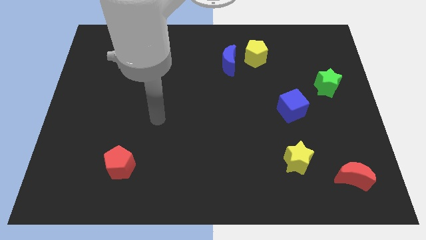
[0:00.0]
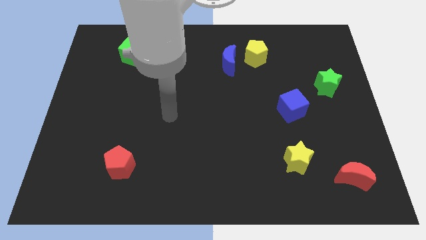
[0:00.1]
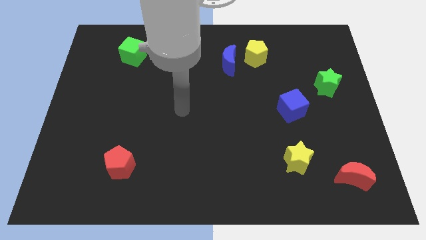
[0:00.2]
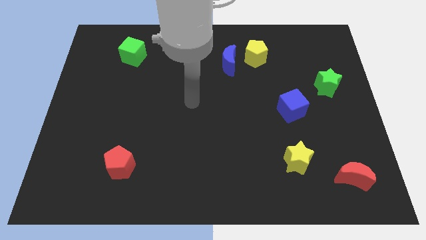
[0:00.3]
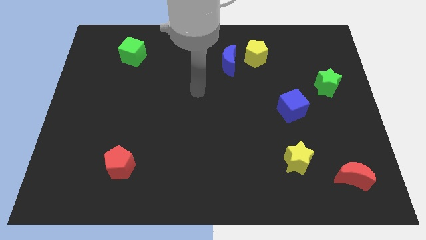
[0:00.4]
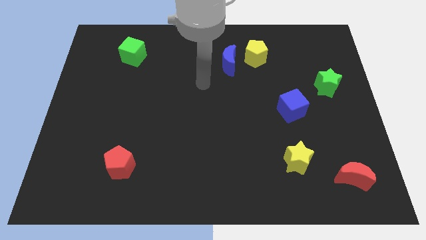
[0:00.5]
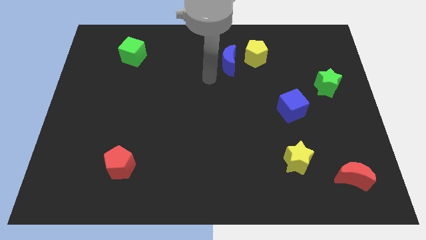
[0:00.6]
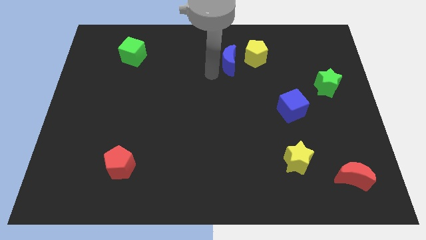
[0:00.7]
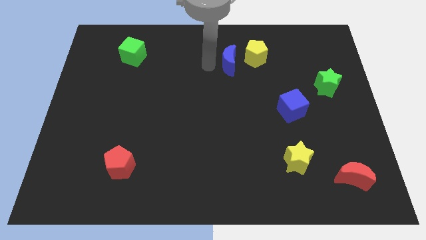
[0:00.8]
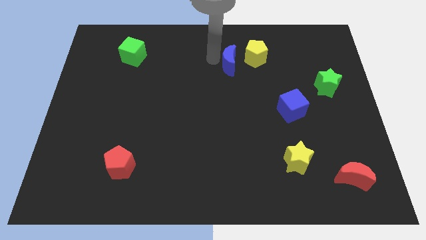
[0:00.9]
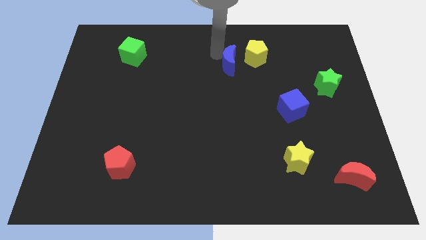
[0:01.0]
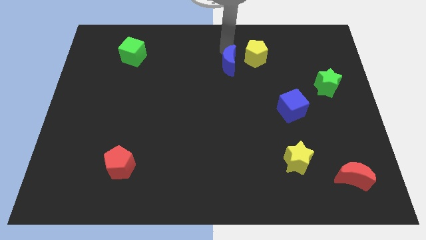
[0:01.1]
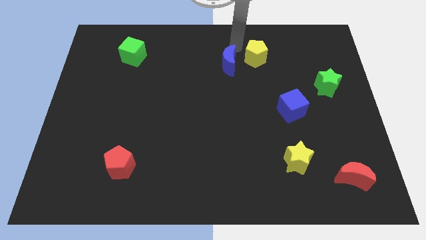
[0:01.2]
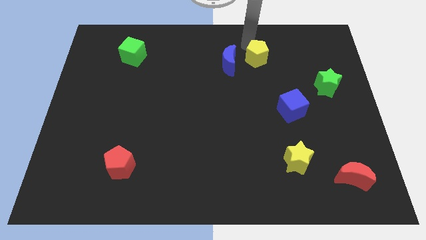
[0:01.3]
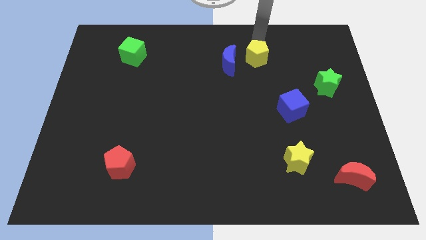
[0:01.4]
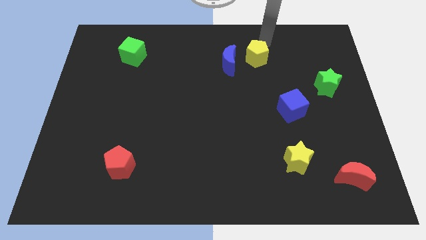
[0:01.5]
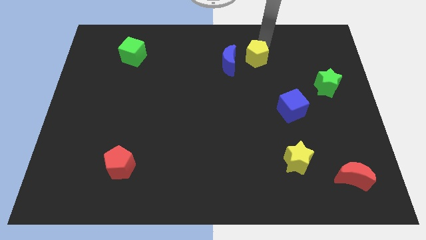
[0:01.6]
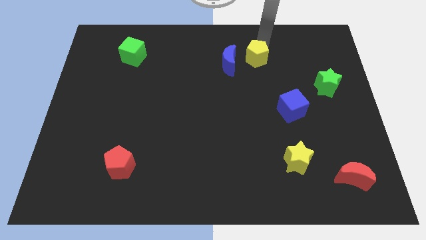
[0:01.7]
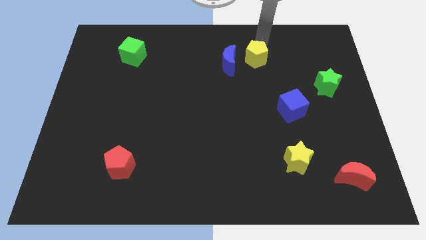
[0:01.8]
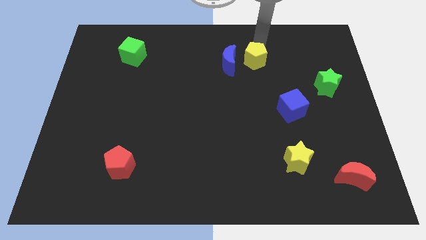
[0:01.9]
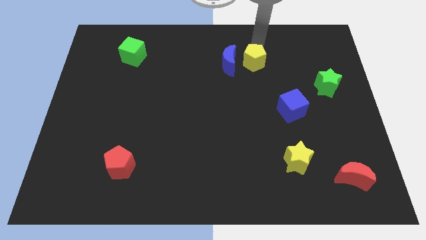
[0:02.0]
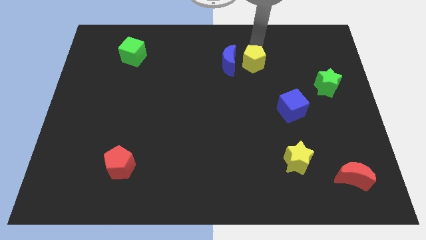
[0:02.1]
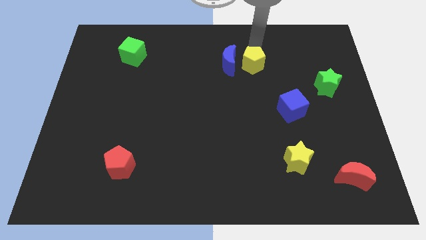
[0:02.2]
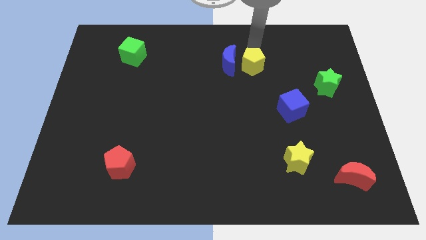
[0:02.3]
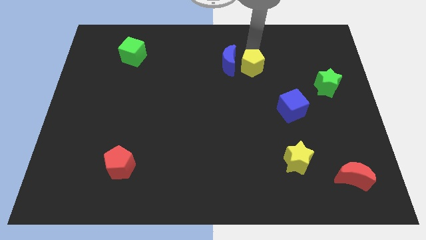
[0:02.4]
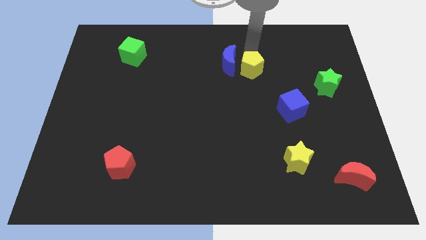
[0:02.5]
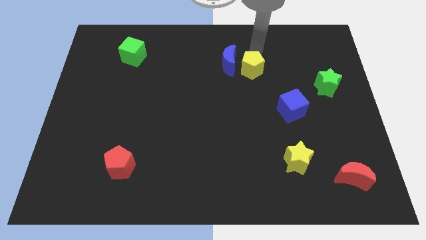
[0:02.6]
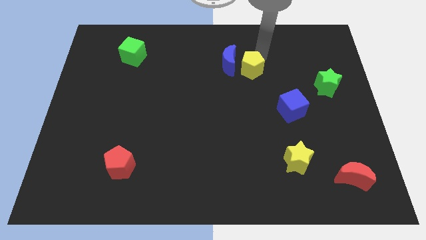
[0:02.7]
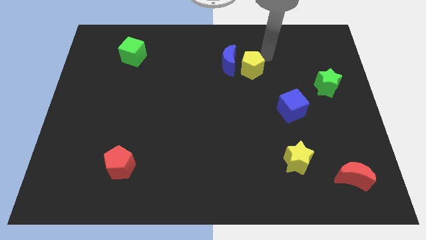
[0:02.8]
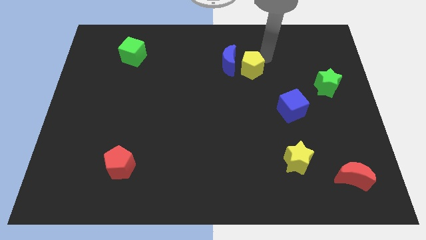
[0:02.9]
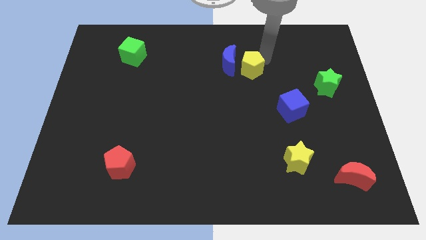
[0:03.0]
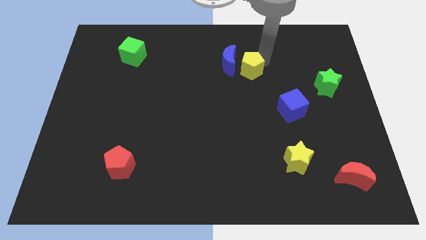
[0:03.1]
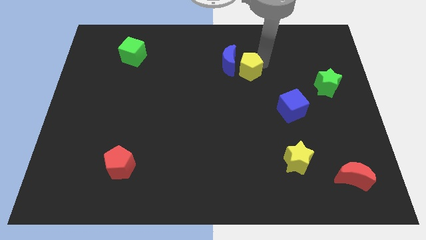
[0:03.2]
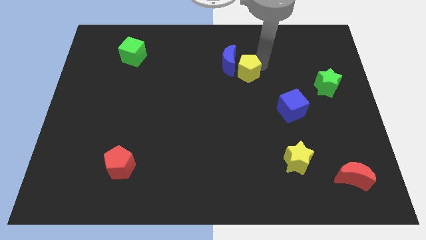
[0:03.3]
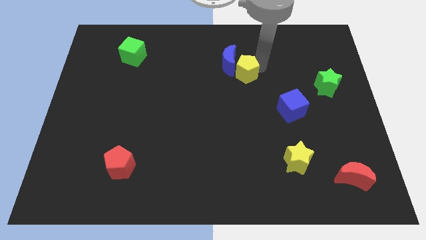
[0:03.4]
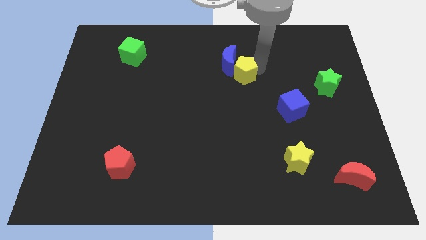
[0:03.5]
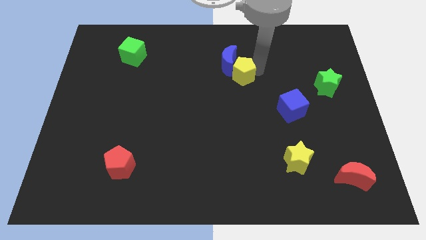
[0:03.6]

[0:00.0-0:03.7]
push the yellow pentagon a little down and to the left diagonally

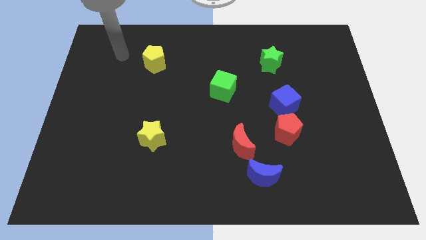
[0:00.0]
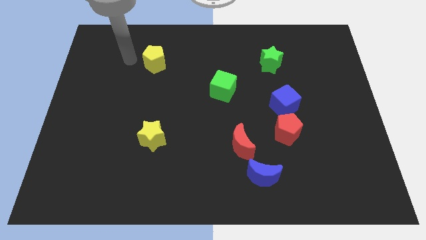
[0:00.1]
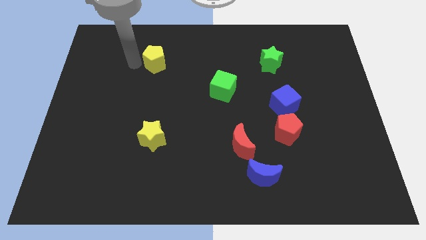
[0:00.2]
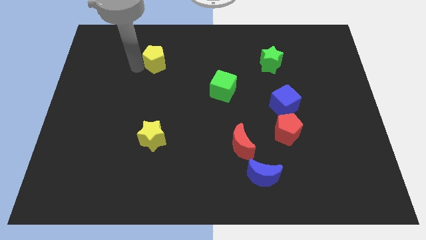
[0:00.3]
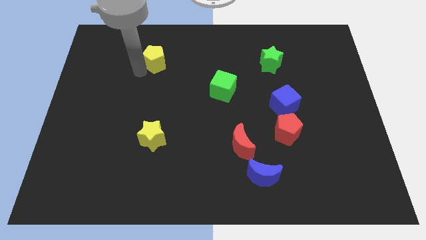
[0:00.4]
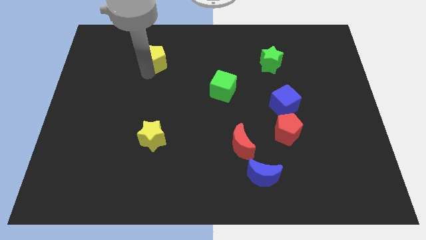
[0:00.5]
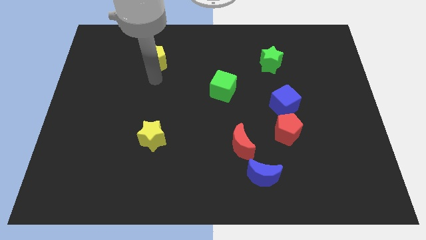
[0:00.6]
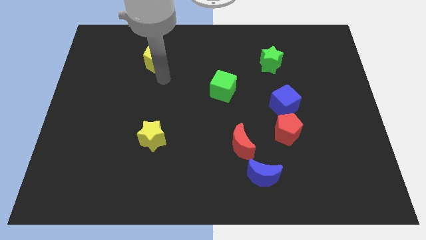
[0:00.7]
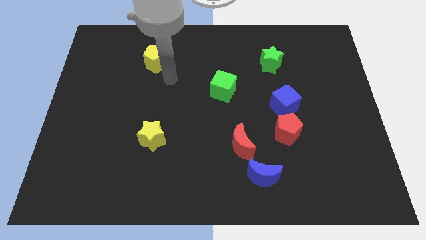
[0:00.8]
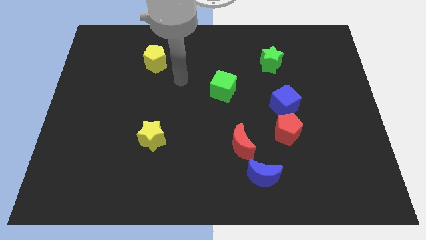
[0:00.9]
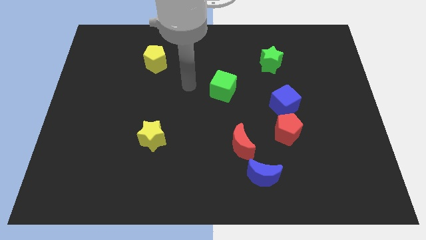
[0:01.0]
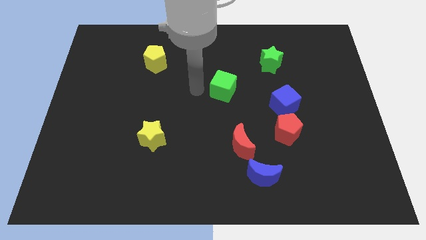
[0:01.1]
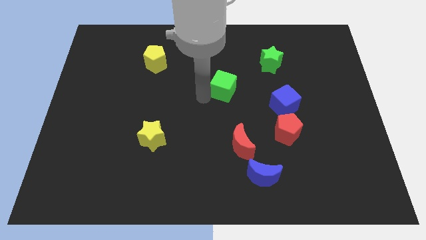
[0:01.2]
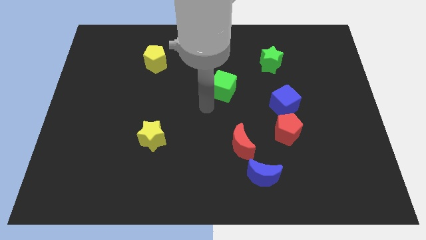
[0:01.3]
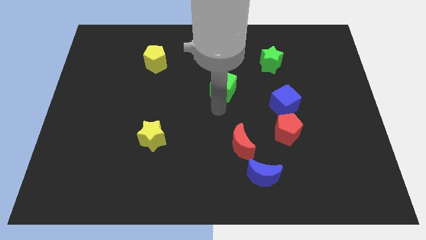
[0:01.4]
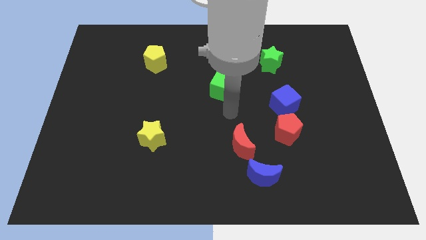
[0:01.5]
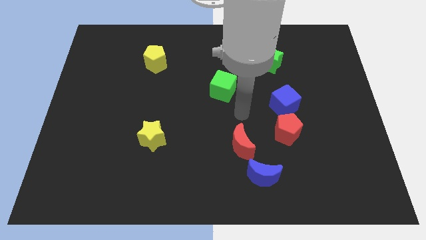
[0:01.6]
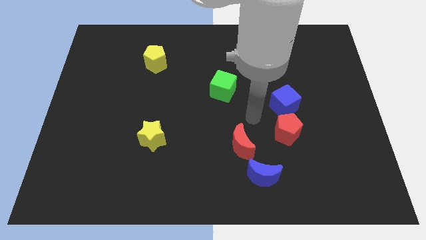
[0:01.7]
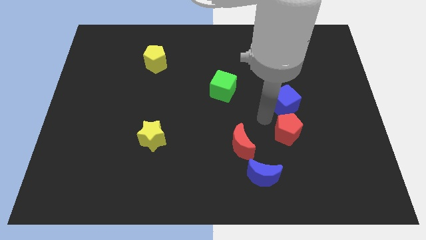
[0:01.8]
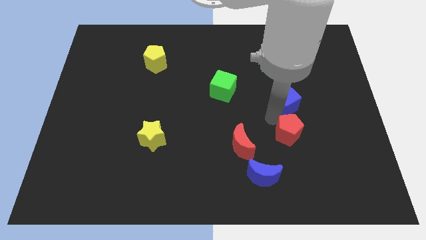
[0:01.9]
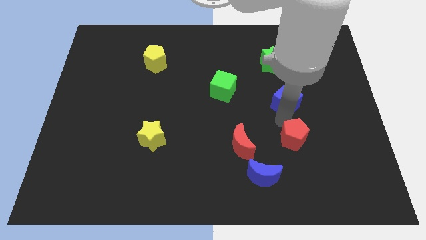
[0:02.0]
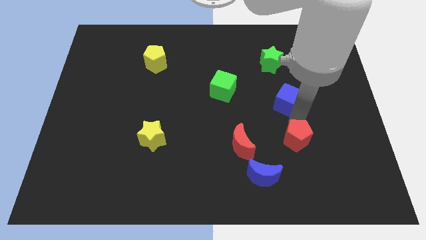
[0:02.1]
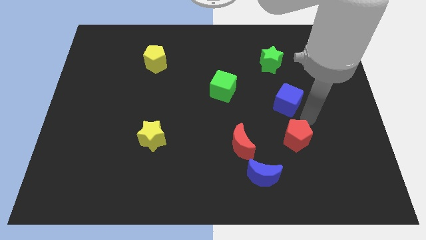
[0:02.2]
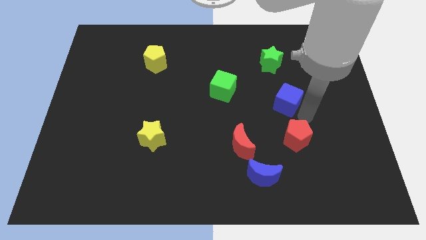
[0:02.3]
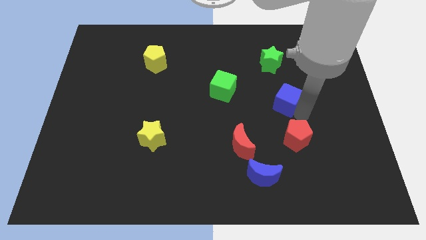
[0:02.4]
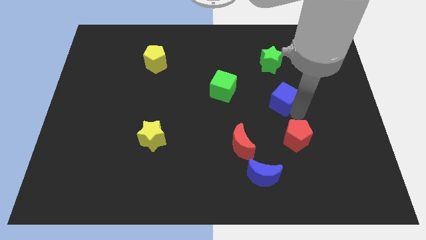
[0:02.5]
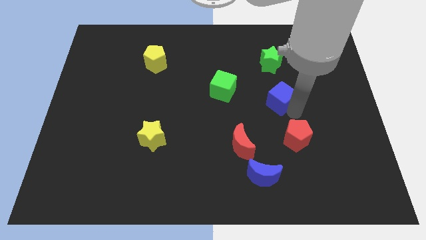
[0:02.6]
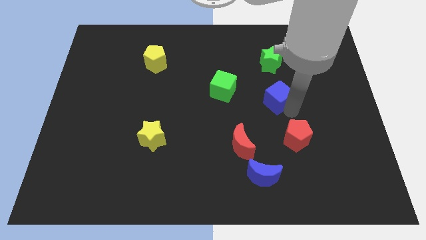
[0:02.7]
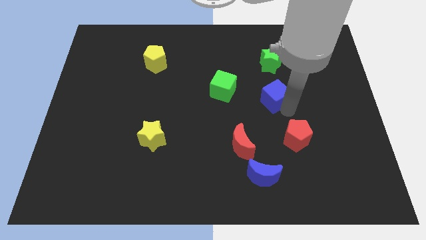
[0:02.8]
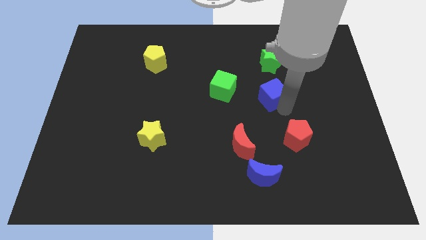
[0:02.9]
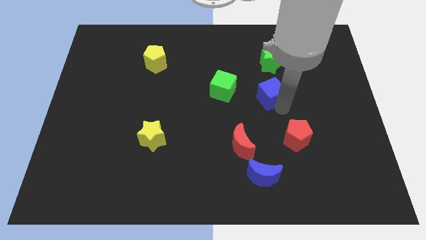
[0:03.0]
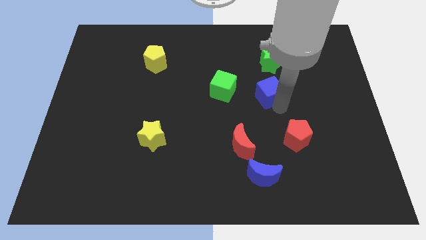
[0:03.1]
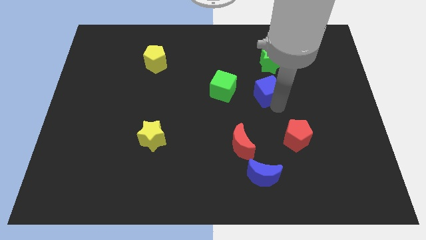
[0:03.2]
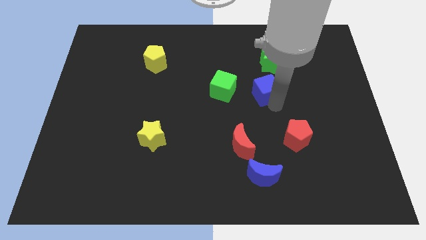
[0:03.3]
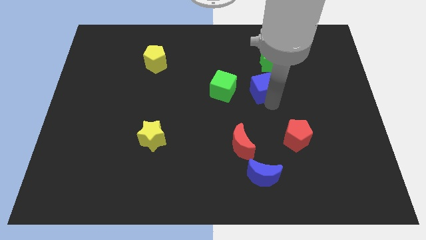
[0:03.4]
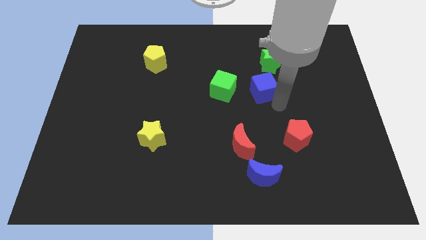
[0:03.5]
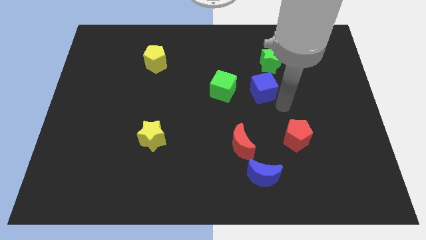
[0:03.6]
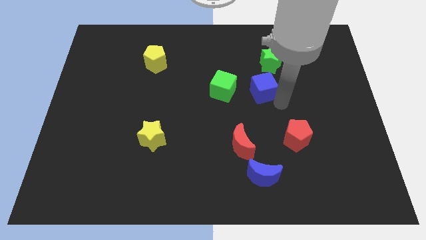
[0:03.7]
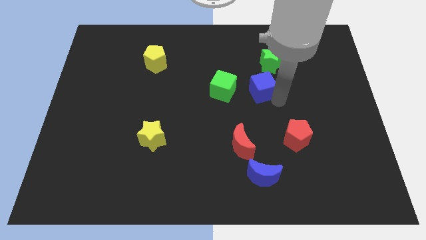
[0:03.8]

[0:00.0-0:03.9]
push the blue cube slightly diagonally up and left

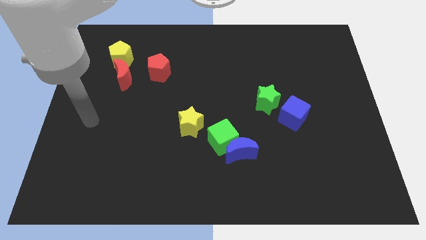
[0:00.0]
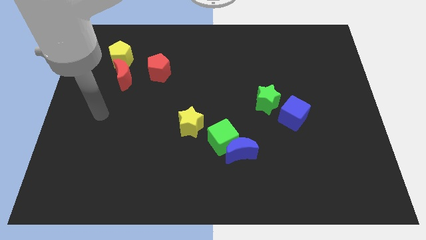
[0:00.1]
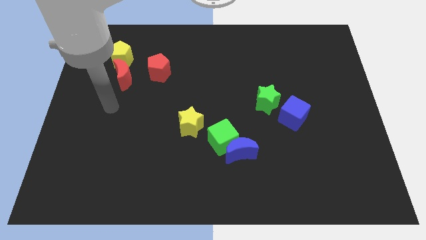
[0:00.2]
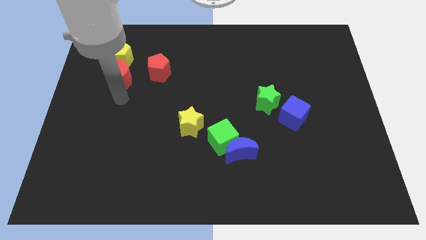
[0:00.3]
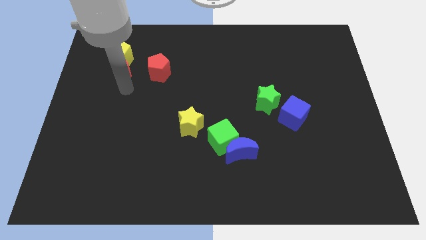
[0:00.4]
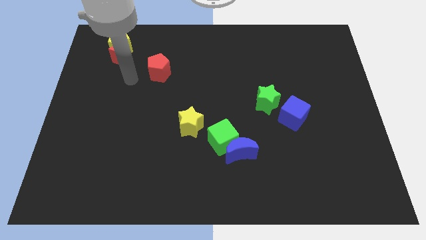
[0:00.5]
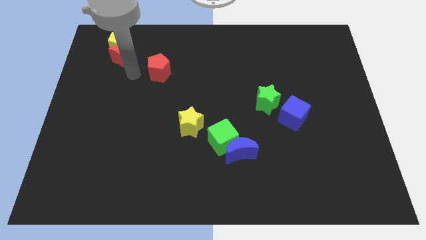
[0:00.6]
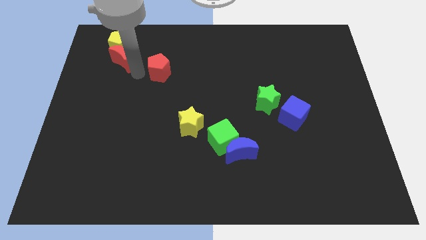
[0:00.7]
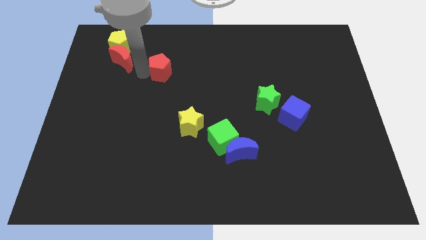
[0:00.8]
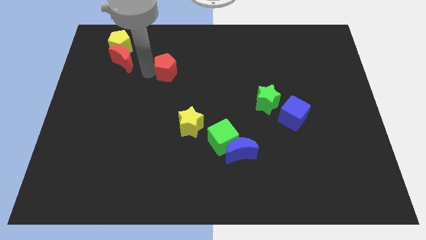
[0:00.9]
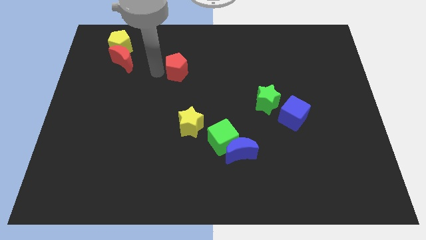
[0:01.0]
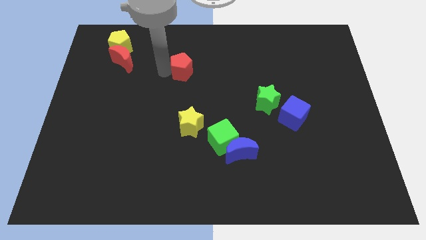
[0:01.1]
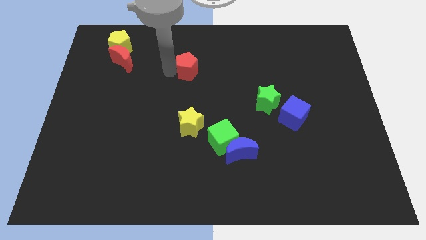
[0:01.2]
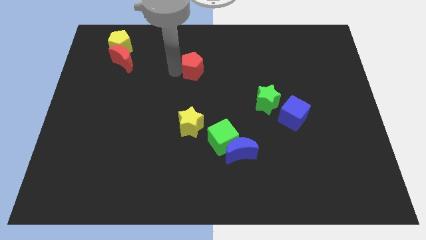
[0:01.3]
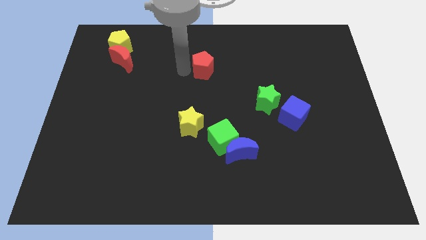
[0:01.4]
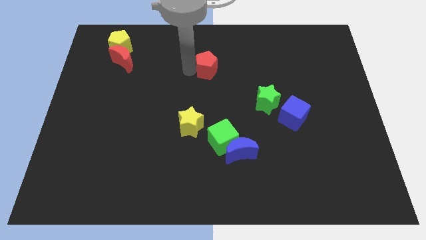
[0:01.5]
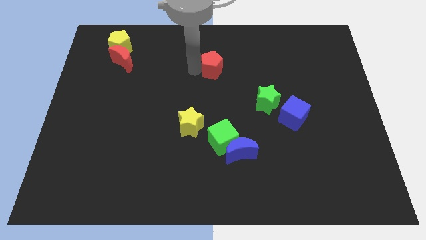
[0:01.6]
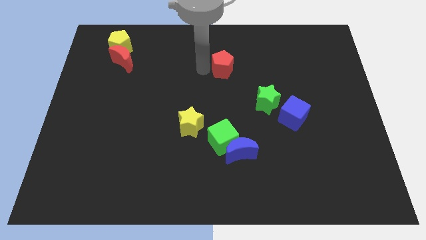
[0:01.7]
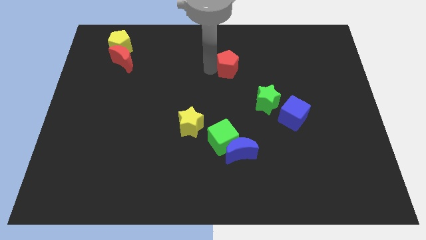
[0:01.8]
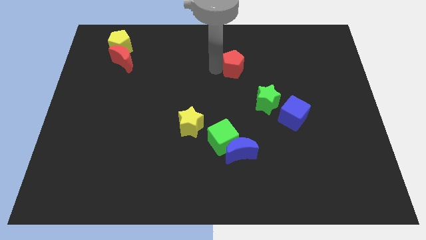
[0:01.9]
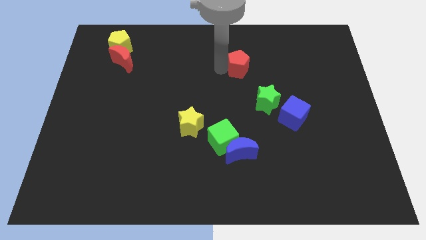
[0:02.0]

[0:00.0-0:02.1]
move the red pentagon right
